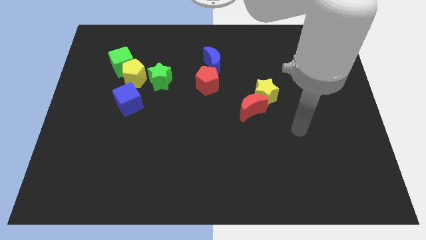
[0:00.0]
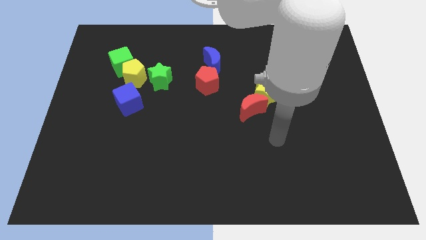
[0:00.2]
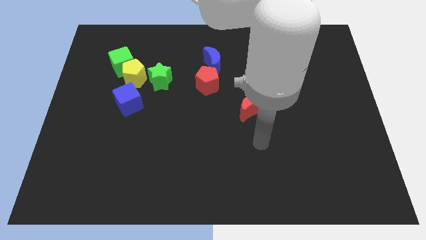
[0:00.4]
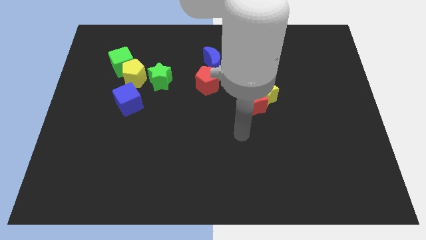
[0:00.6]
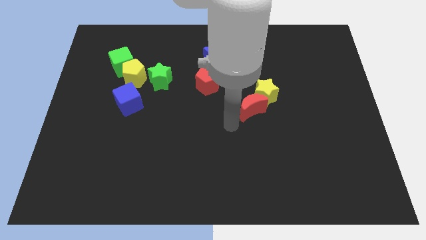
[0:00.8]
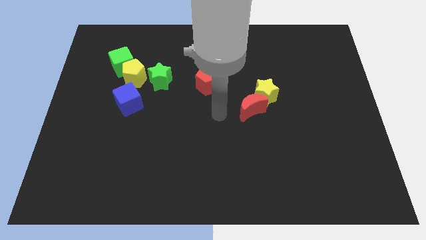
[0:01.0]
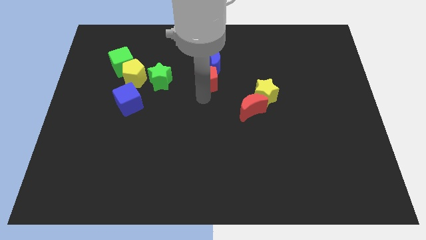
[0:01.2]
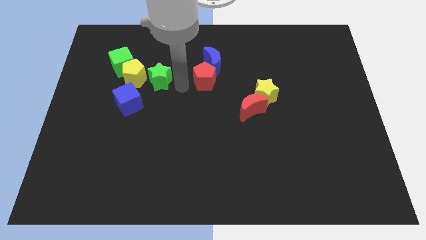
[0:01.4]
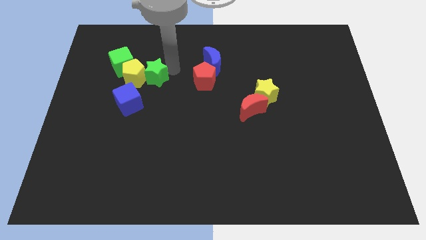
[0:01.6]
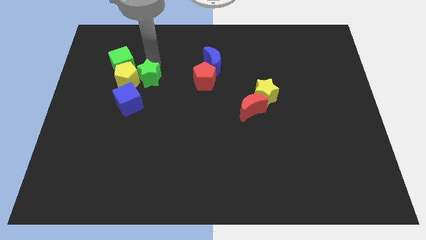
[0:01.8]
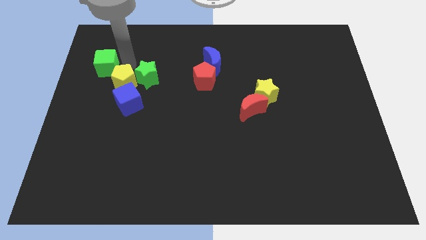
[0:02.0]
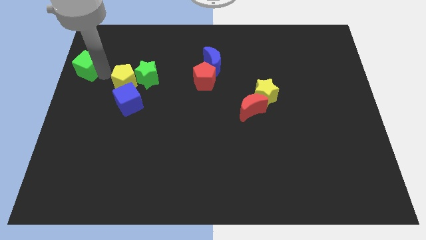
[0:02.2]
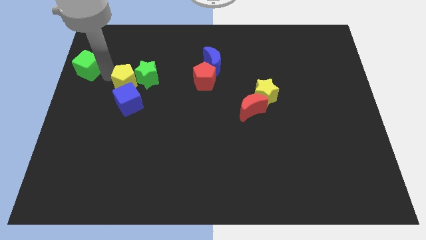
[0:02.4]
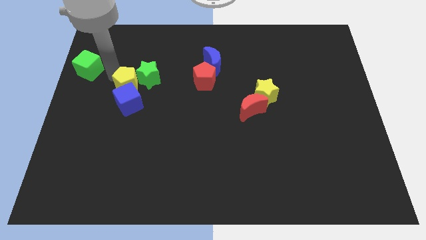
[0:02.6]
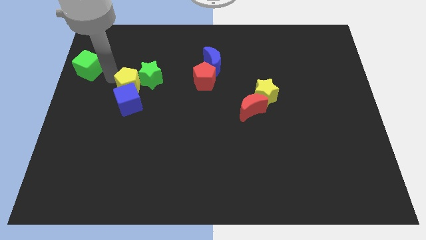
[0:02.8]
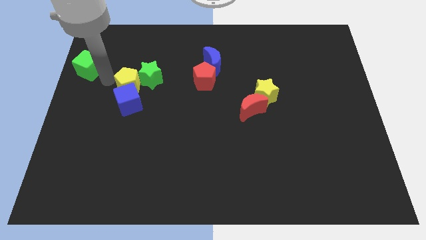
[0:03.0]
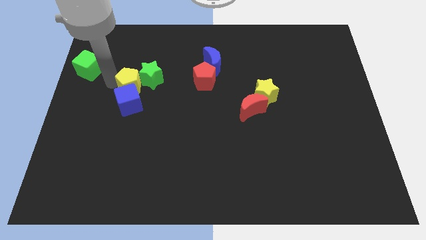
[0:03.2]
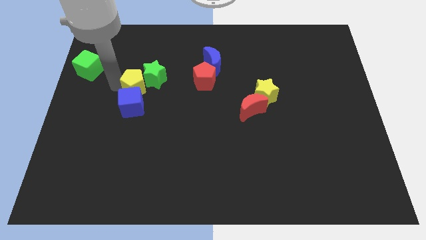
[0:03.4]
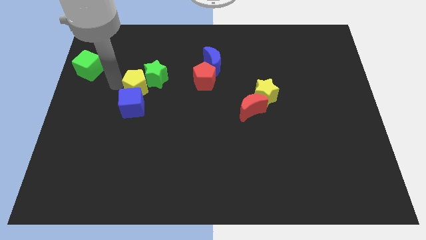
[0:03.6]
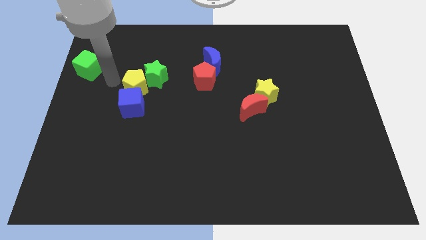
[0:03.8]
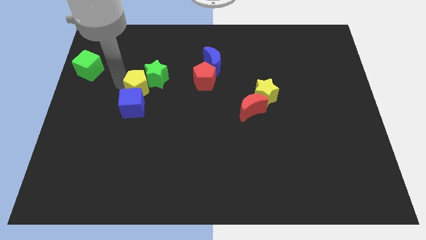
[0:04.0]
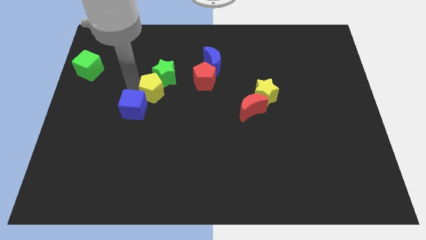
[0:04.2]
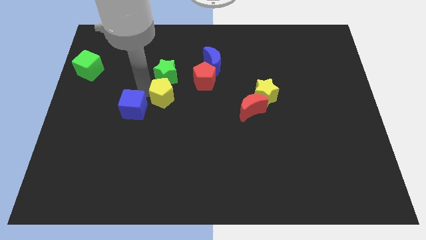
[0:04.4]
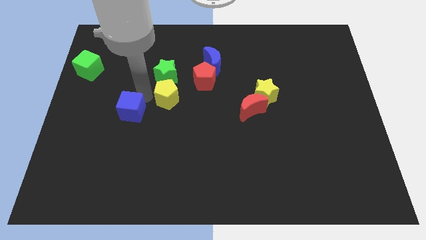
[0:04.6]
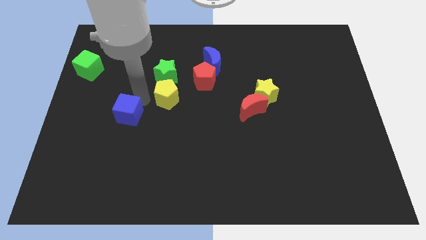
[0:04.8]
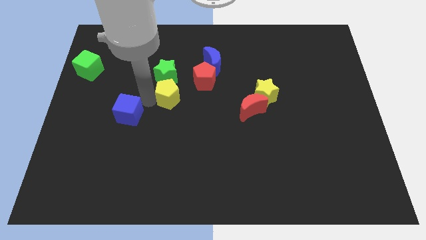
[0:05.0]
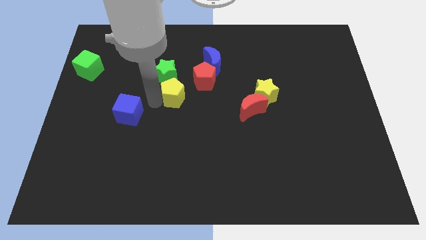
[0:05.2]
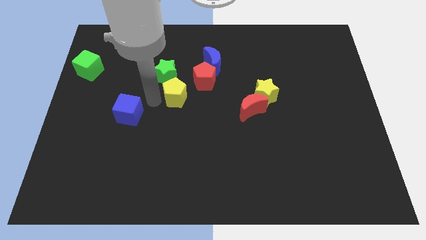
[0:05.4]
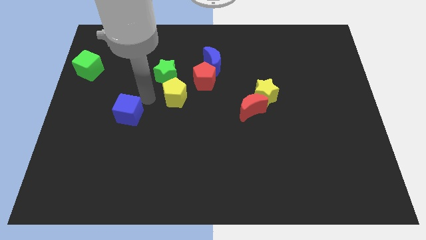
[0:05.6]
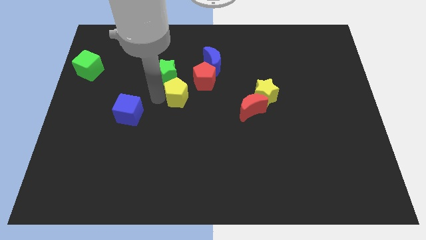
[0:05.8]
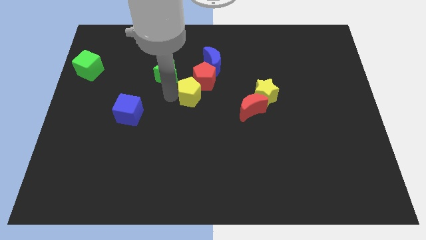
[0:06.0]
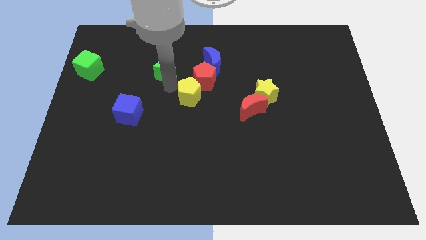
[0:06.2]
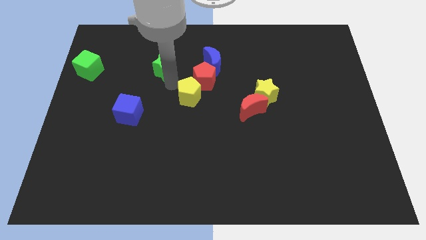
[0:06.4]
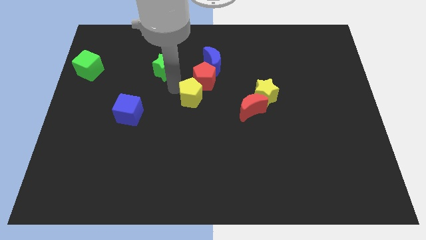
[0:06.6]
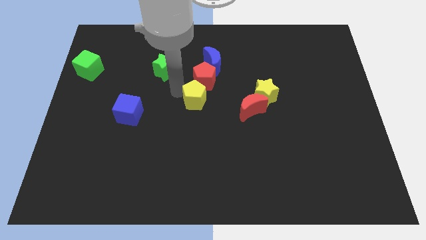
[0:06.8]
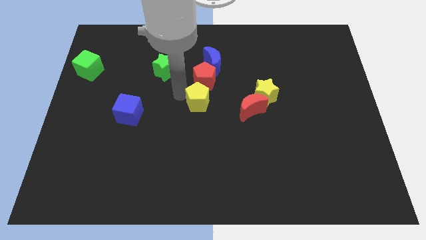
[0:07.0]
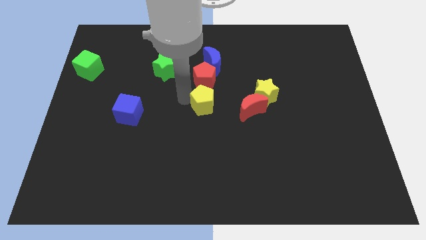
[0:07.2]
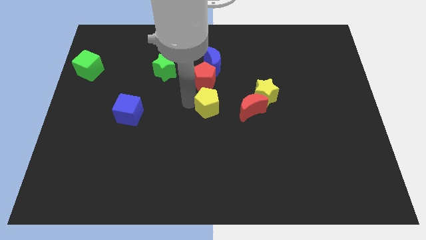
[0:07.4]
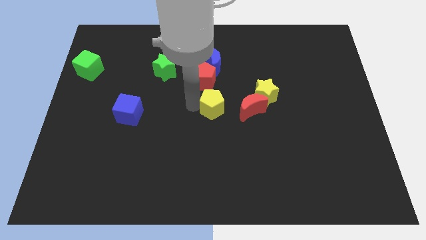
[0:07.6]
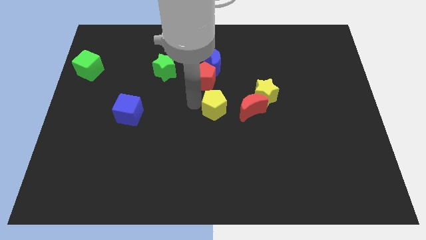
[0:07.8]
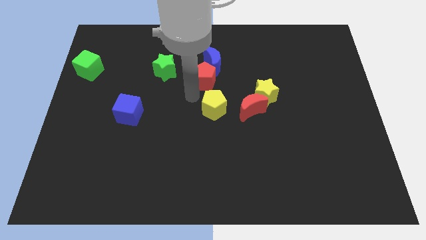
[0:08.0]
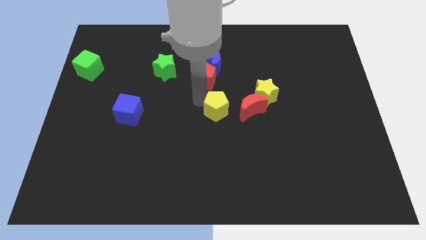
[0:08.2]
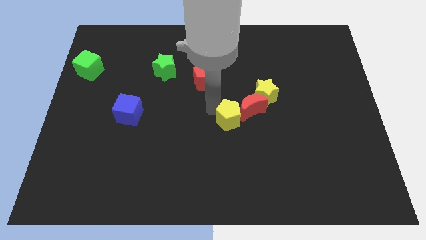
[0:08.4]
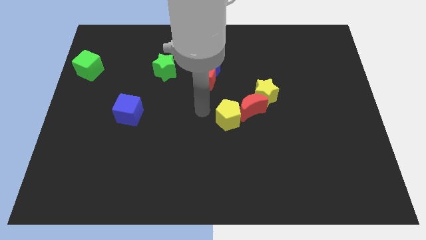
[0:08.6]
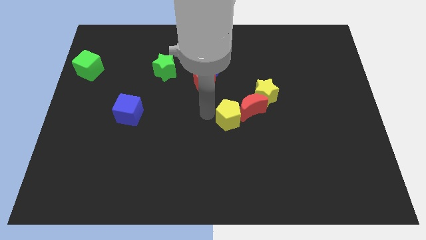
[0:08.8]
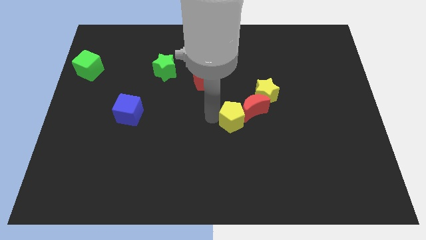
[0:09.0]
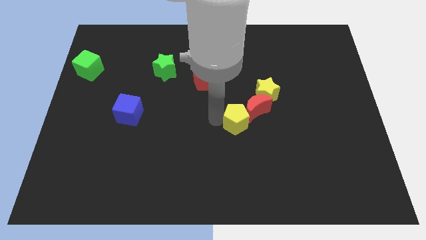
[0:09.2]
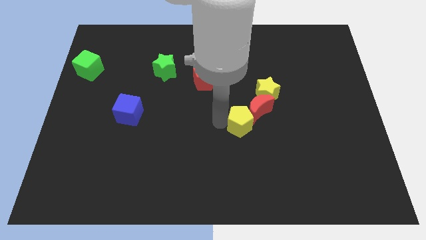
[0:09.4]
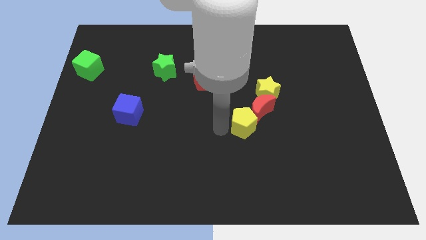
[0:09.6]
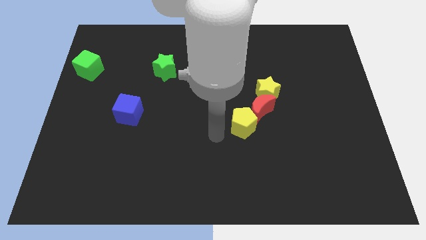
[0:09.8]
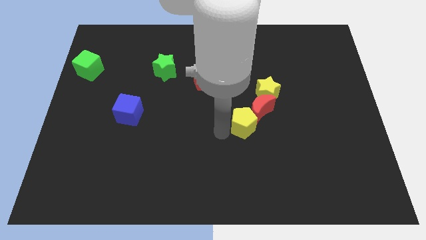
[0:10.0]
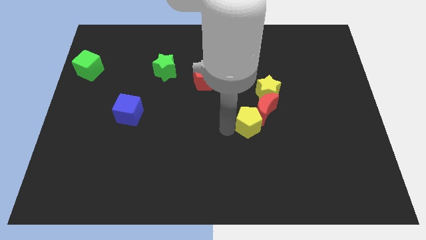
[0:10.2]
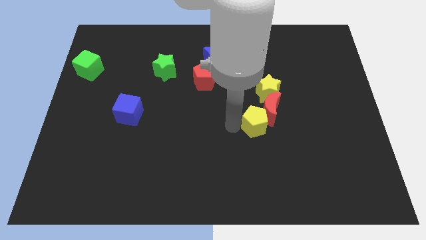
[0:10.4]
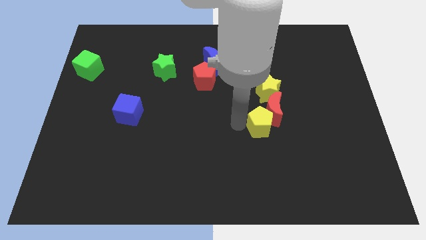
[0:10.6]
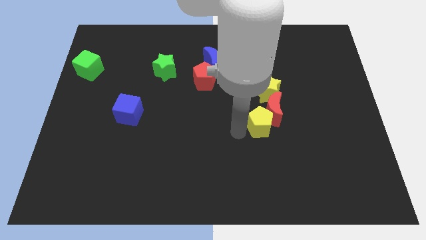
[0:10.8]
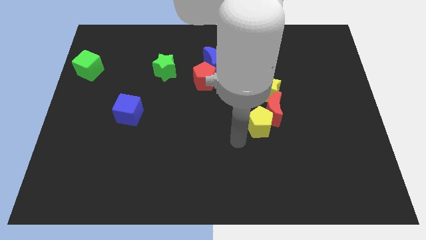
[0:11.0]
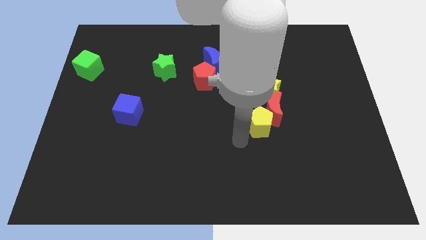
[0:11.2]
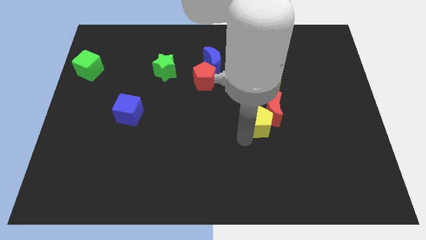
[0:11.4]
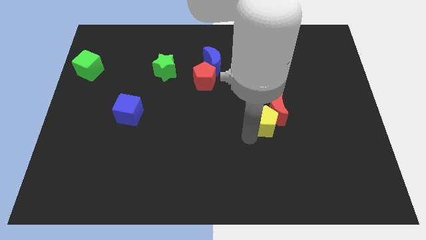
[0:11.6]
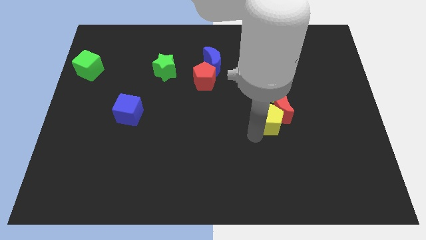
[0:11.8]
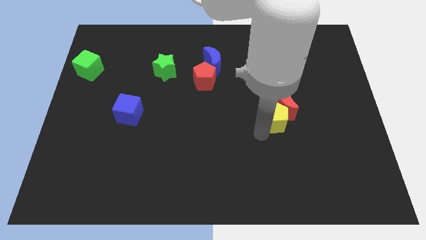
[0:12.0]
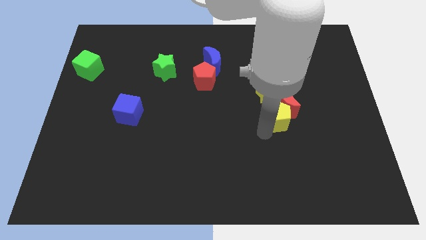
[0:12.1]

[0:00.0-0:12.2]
push the yellow pentagon diagonally down and to the right of the yellow star

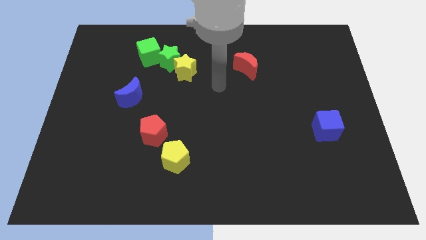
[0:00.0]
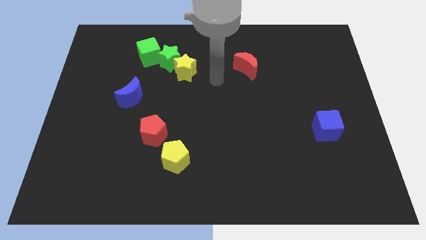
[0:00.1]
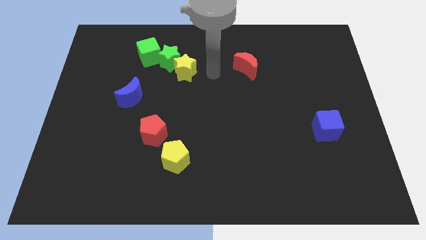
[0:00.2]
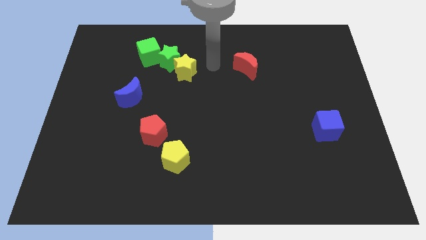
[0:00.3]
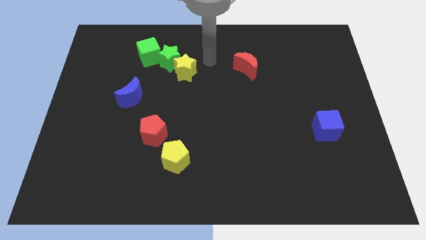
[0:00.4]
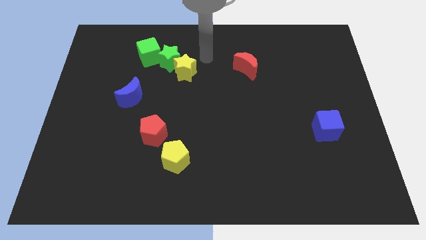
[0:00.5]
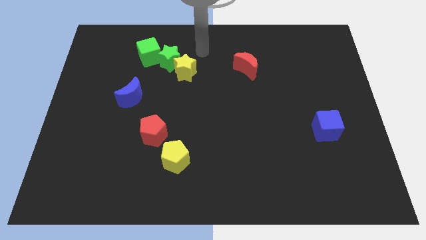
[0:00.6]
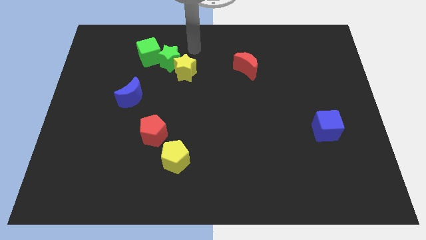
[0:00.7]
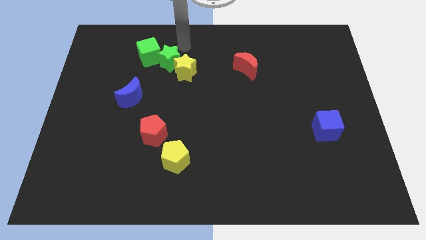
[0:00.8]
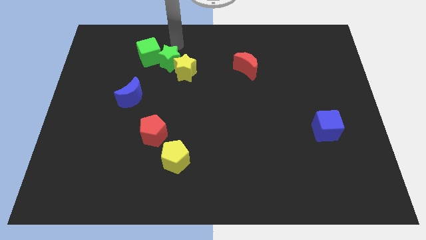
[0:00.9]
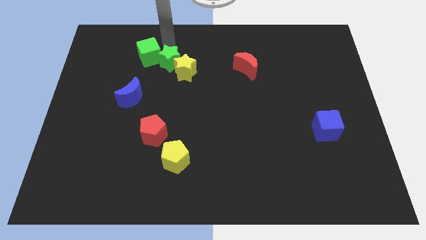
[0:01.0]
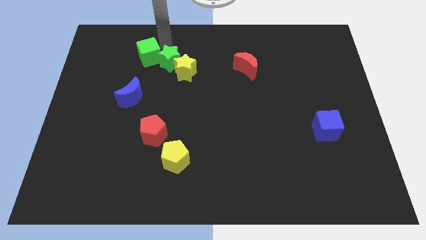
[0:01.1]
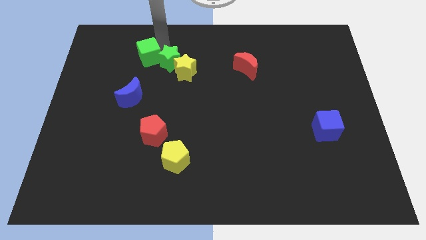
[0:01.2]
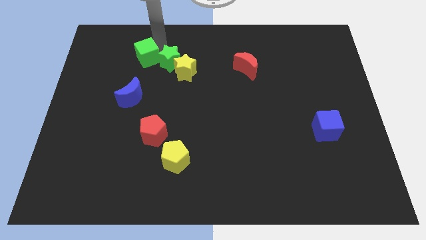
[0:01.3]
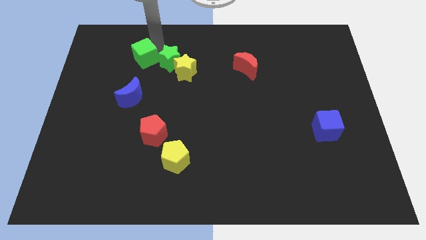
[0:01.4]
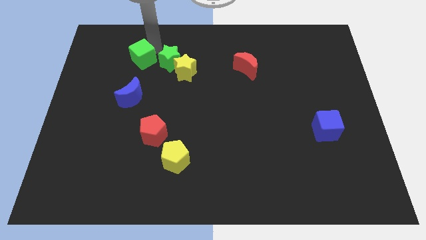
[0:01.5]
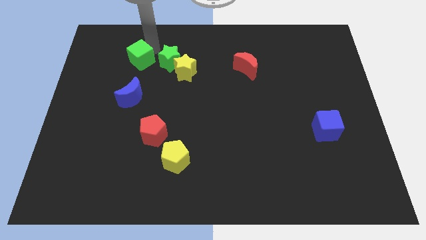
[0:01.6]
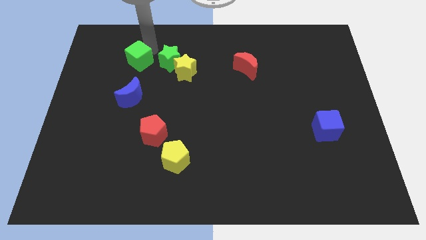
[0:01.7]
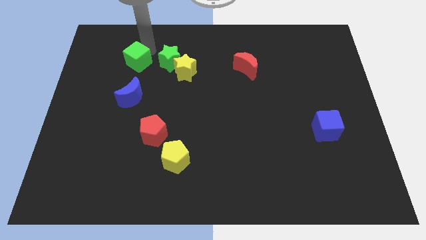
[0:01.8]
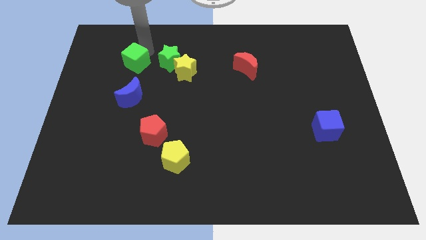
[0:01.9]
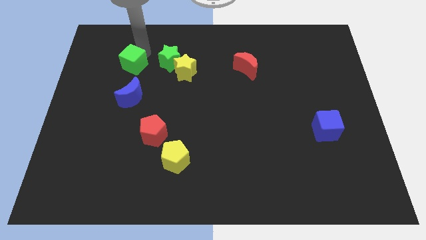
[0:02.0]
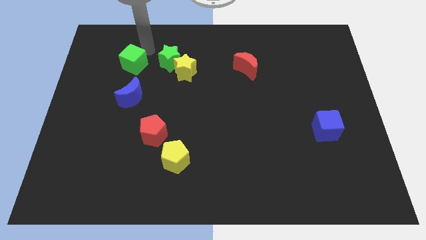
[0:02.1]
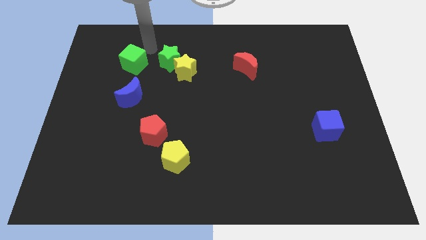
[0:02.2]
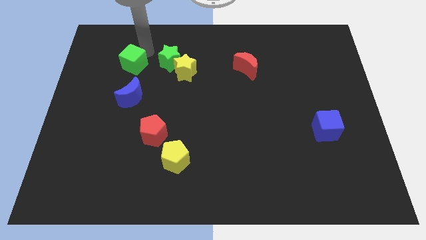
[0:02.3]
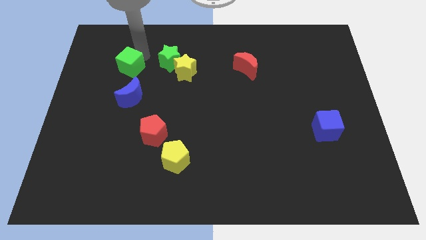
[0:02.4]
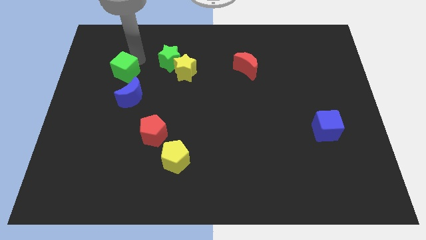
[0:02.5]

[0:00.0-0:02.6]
move the green cube to the top left of the blue moon
